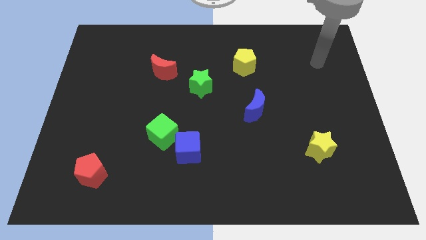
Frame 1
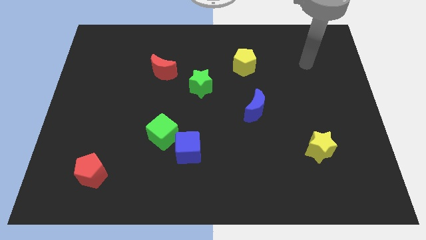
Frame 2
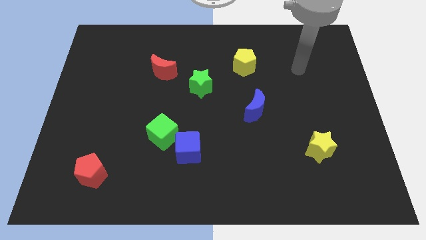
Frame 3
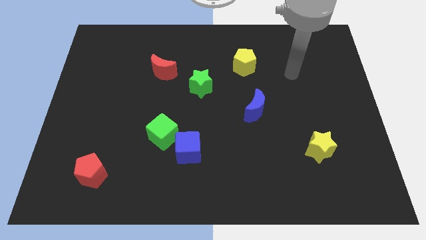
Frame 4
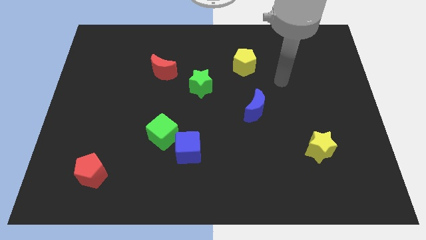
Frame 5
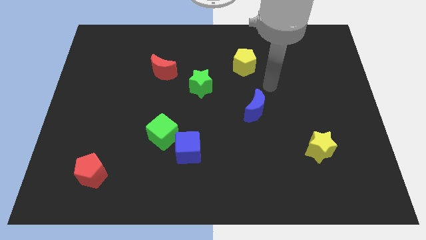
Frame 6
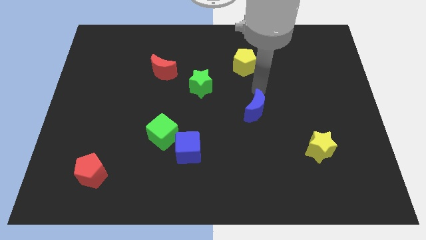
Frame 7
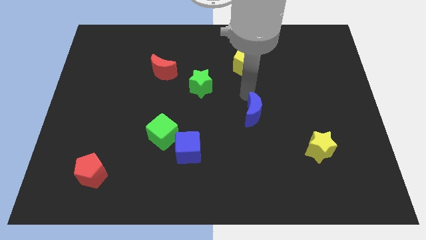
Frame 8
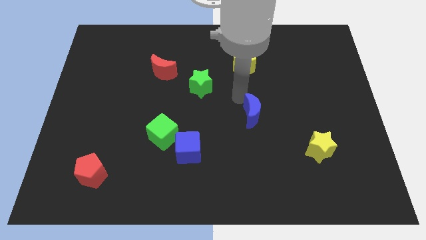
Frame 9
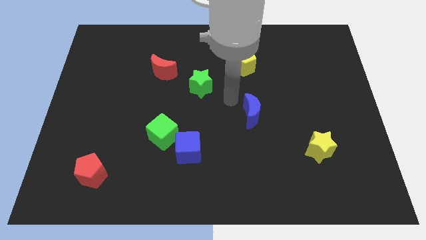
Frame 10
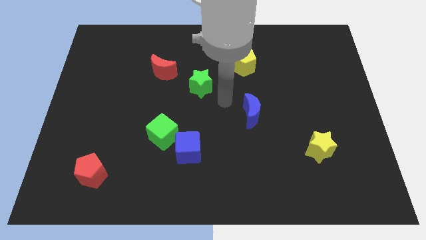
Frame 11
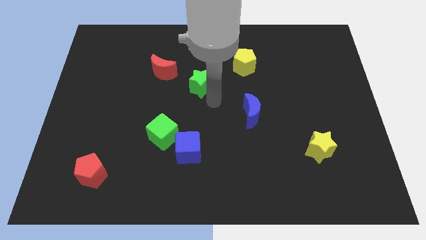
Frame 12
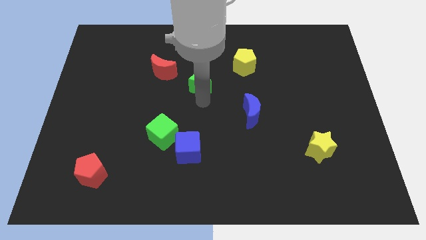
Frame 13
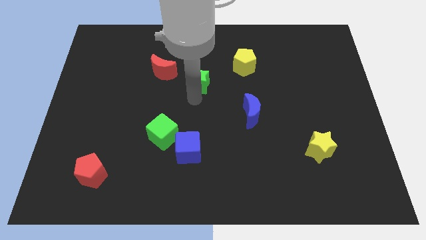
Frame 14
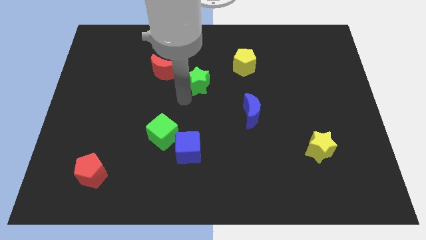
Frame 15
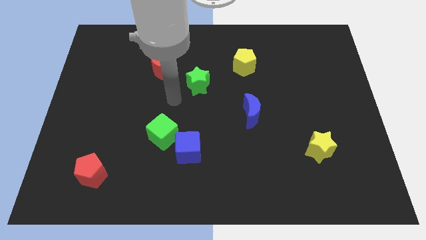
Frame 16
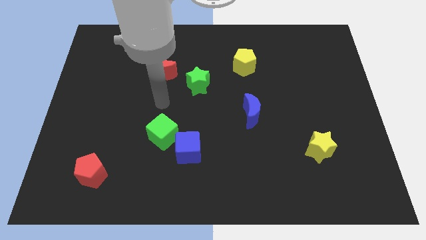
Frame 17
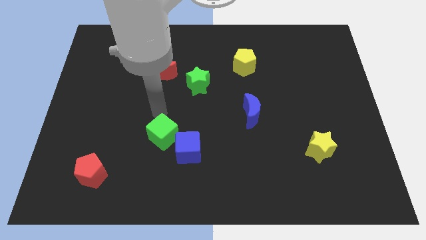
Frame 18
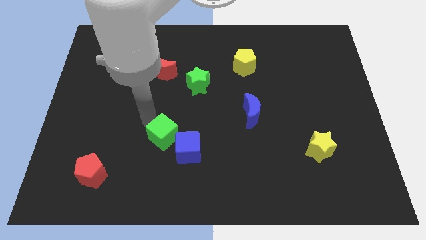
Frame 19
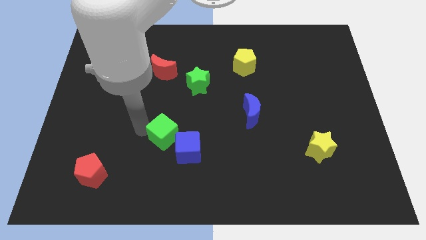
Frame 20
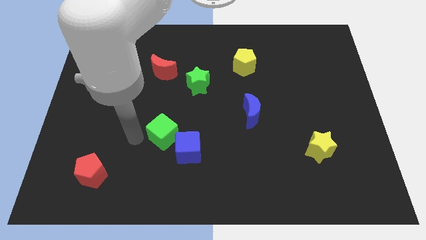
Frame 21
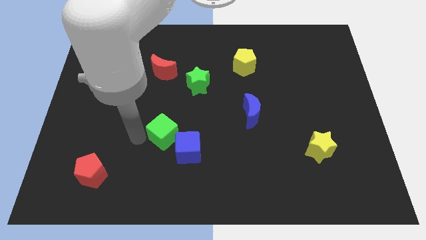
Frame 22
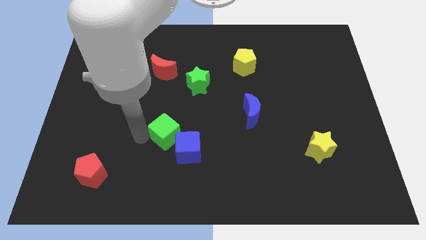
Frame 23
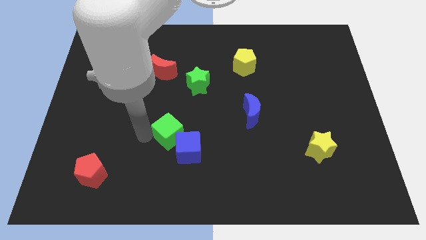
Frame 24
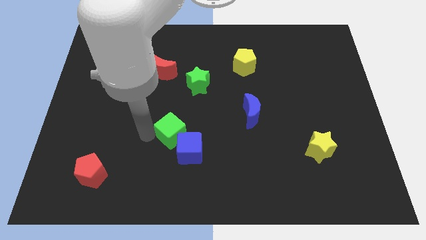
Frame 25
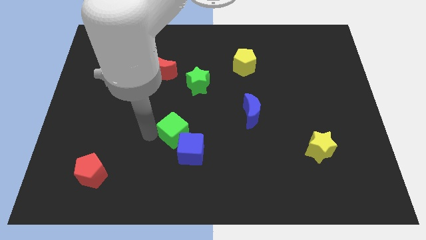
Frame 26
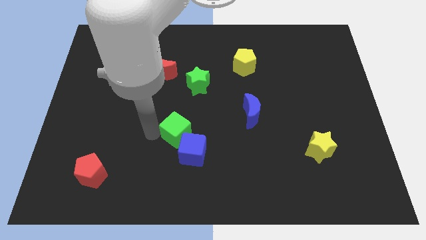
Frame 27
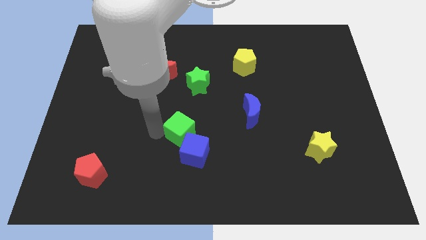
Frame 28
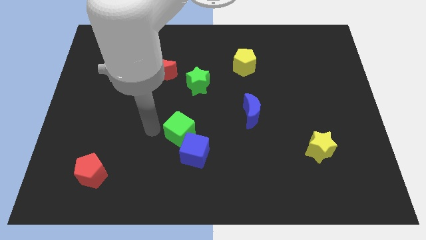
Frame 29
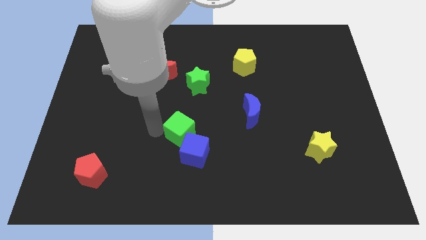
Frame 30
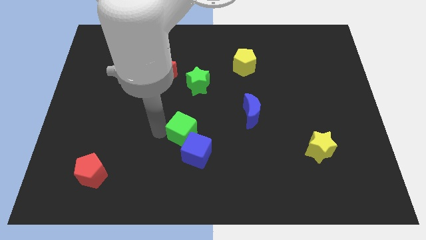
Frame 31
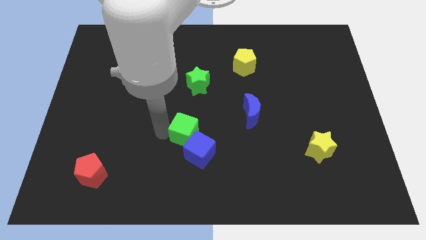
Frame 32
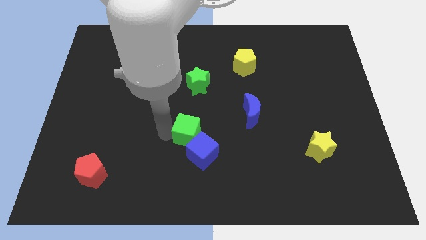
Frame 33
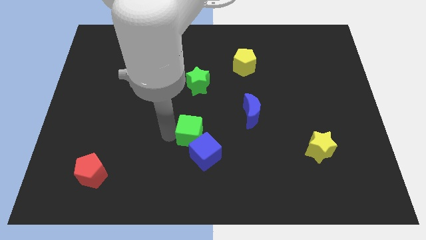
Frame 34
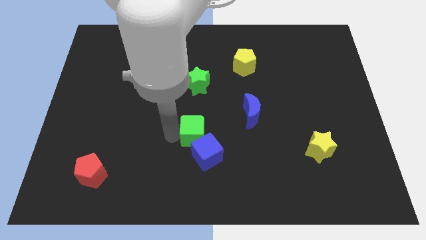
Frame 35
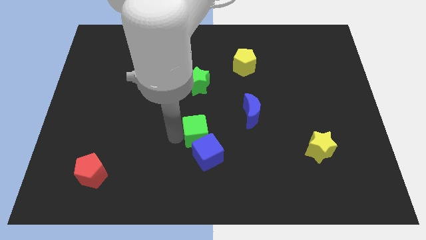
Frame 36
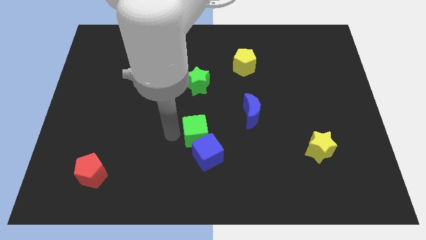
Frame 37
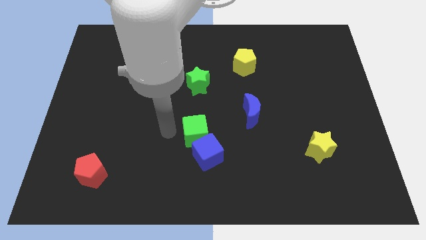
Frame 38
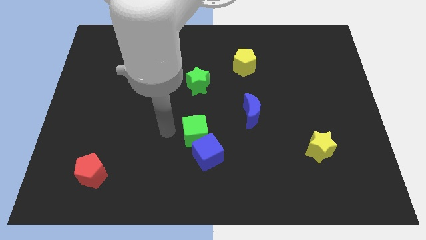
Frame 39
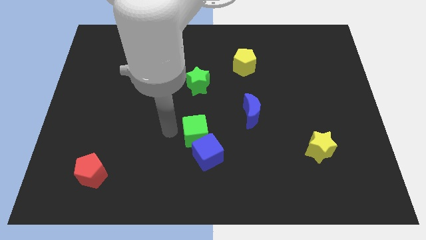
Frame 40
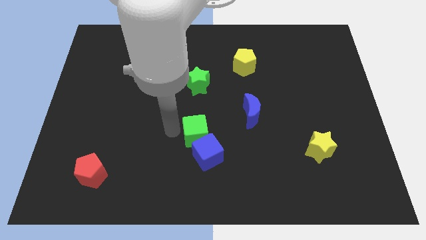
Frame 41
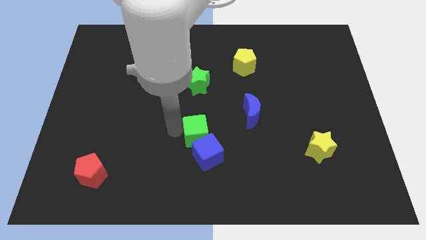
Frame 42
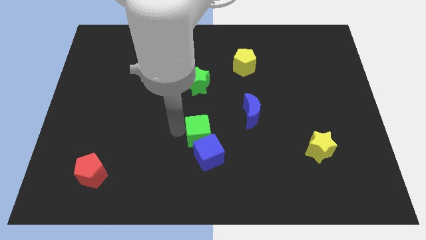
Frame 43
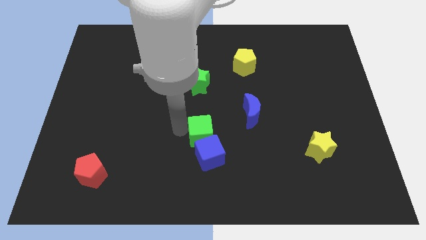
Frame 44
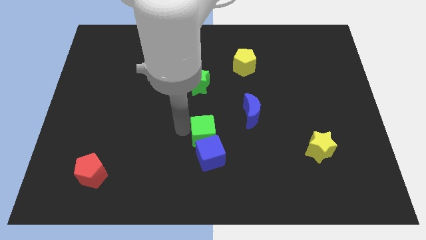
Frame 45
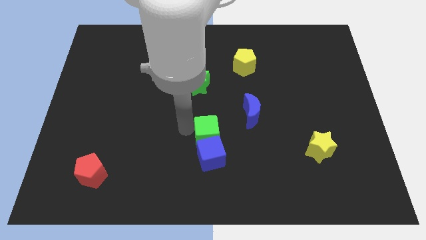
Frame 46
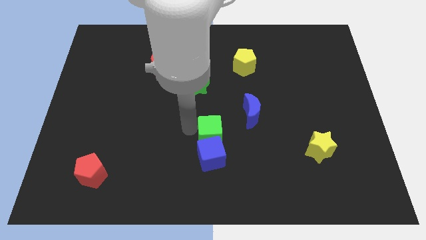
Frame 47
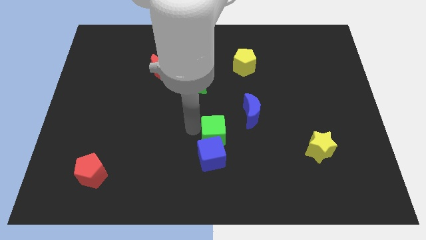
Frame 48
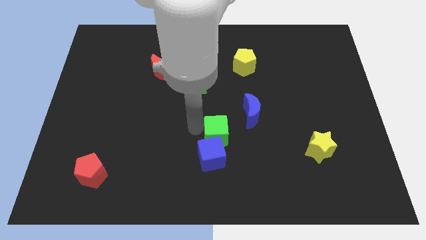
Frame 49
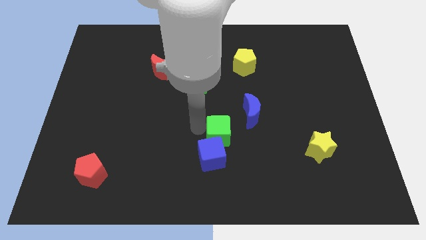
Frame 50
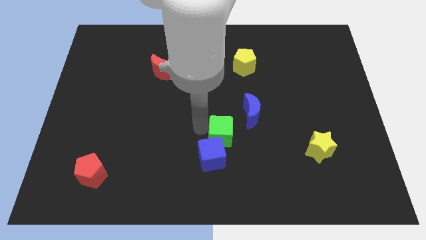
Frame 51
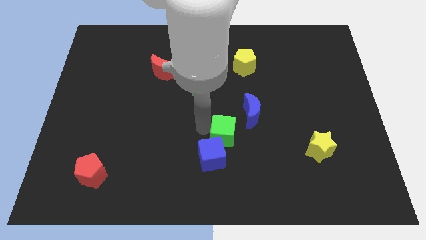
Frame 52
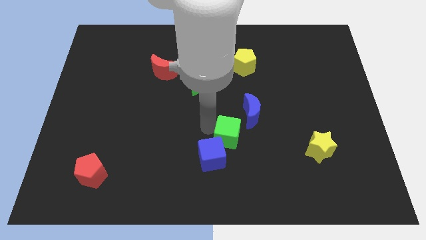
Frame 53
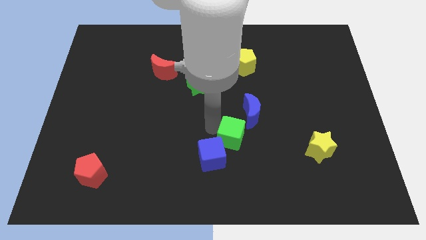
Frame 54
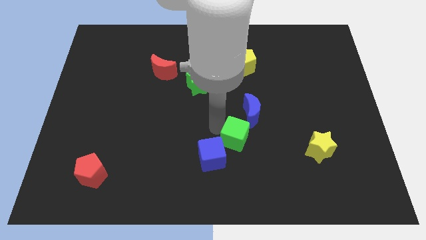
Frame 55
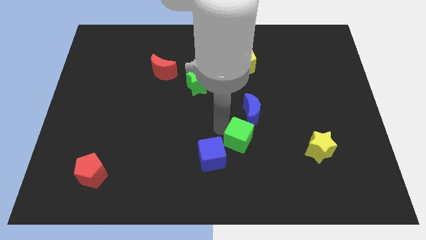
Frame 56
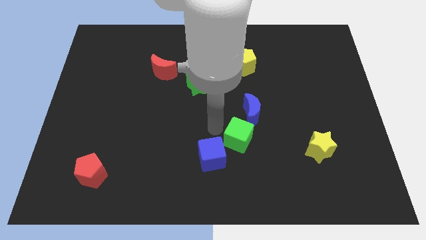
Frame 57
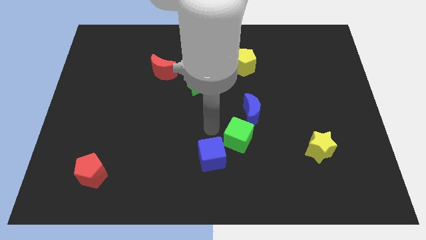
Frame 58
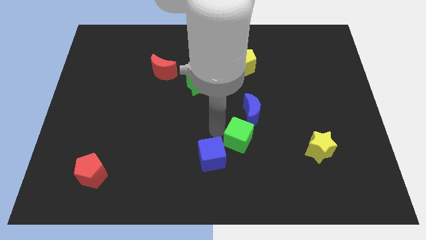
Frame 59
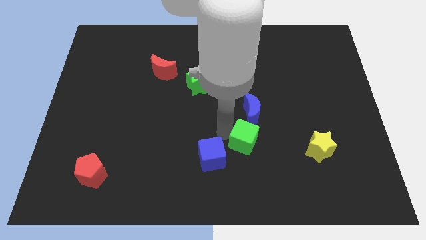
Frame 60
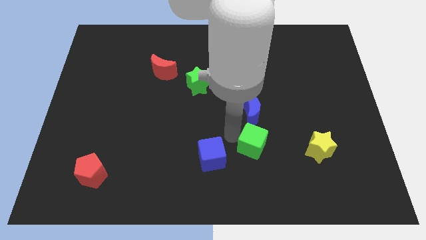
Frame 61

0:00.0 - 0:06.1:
slide the green cube left of the yellow star

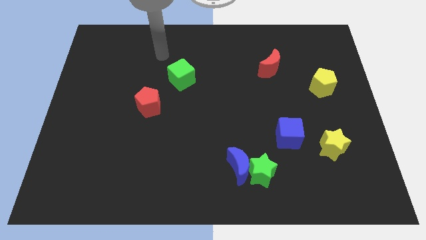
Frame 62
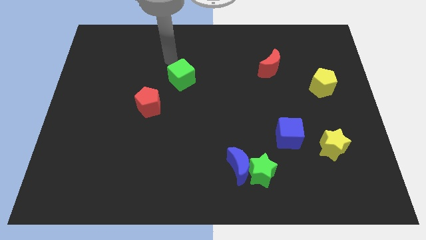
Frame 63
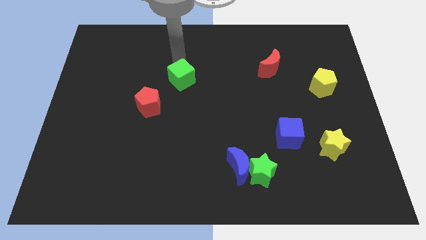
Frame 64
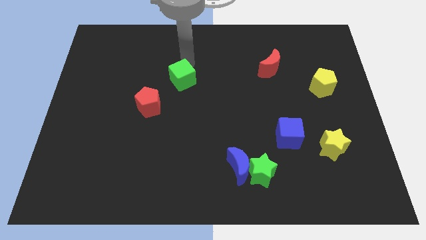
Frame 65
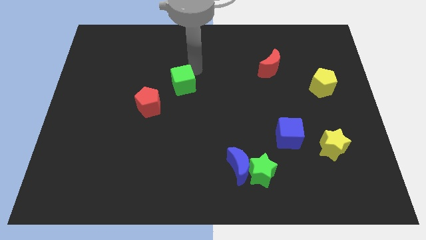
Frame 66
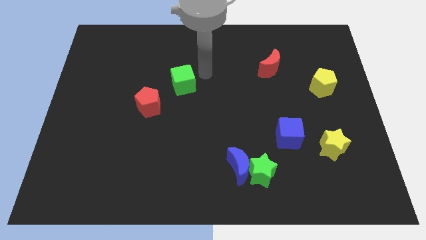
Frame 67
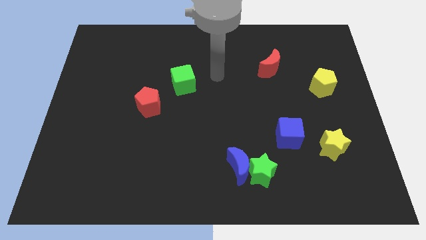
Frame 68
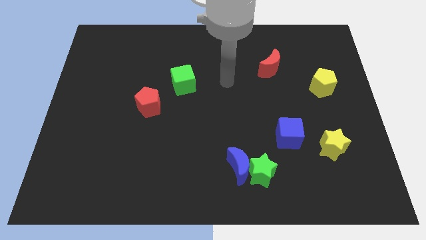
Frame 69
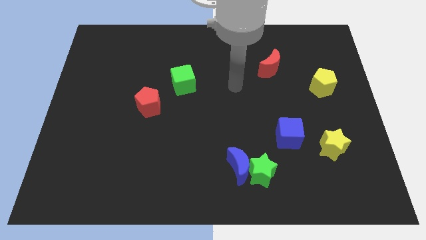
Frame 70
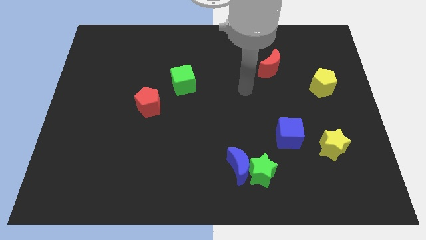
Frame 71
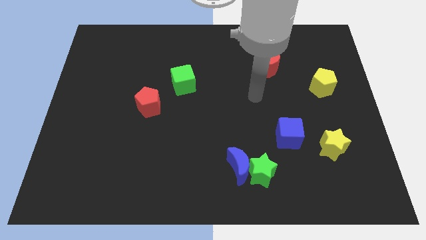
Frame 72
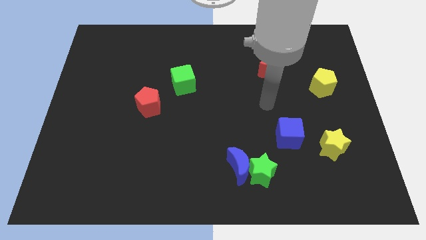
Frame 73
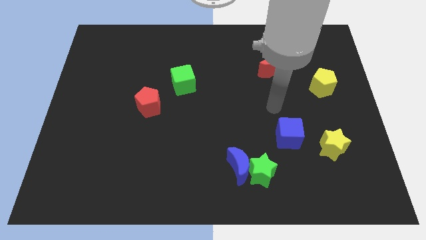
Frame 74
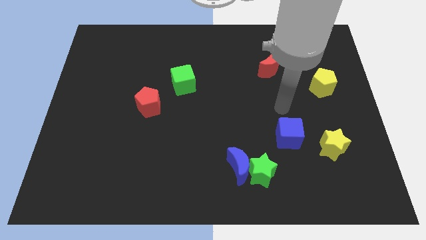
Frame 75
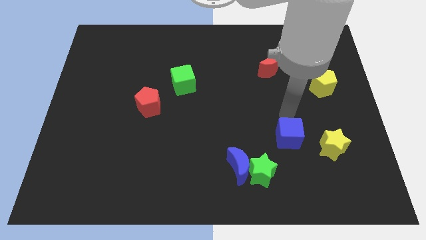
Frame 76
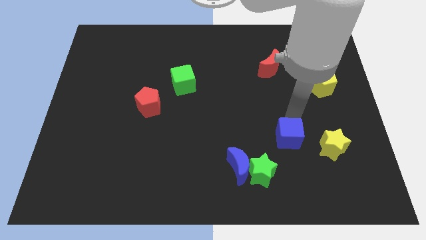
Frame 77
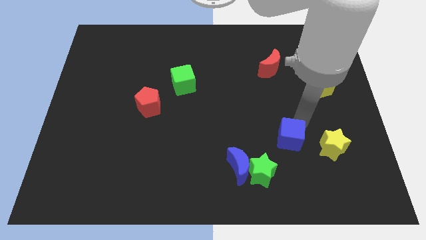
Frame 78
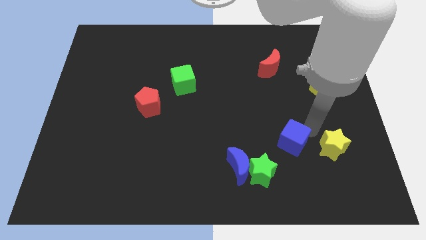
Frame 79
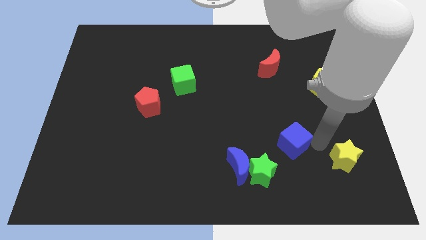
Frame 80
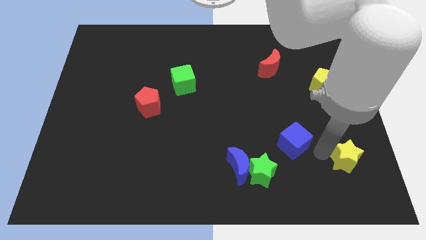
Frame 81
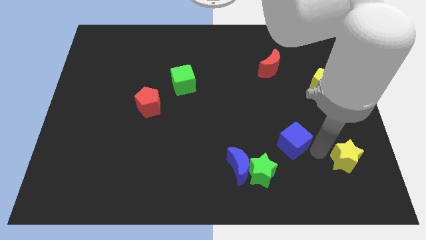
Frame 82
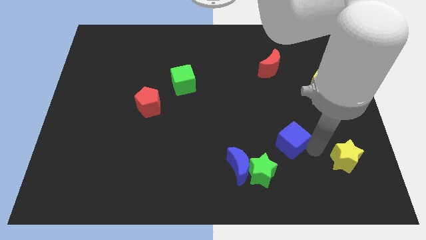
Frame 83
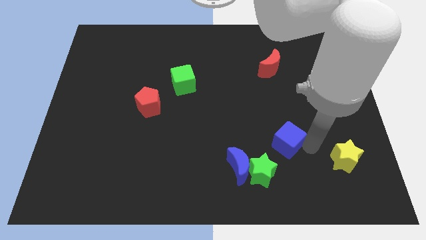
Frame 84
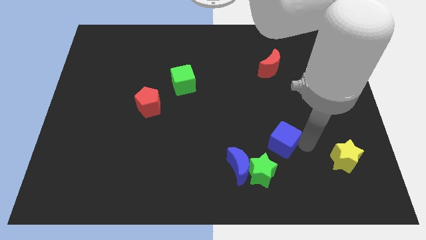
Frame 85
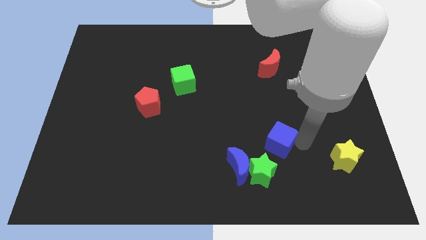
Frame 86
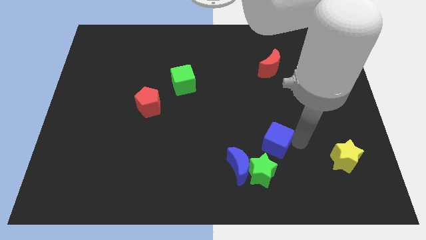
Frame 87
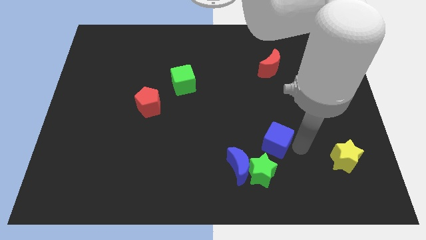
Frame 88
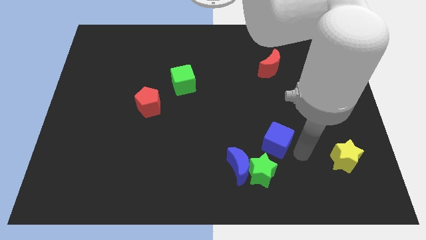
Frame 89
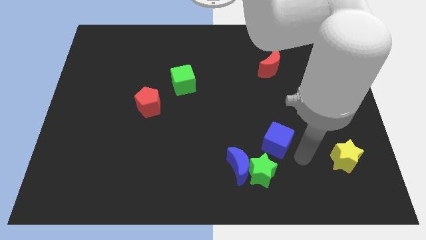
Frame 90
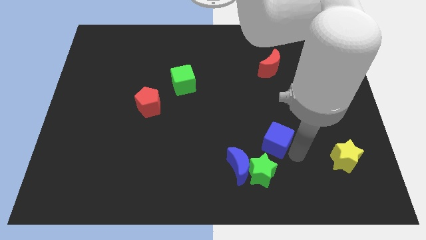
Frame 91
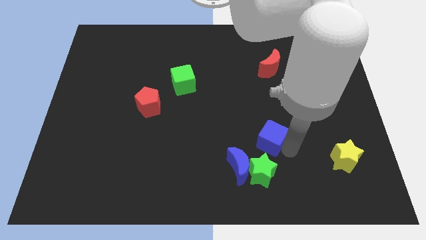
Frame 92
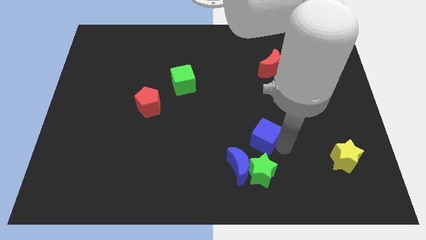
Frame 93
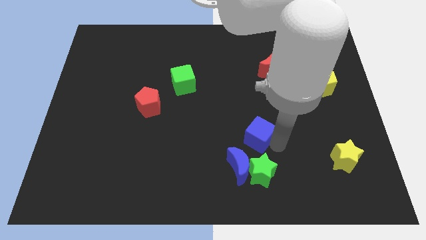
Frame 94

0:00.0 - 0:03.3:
push the blue cube above the blue moon
